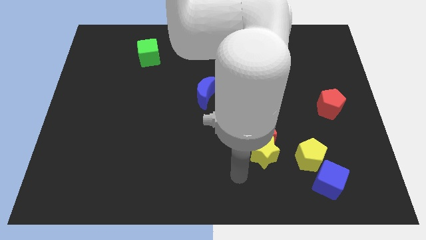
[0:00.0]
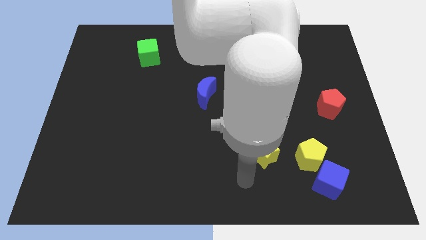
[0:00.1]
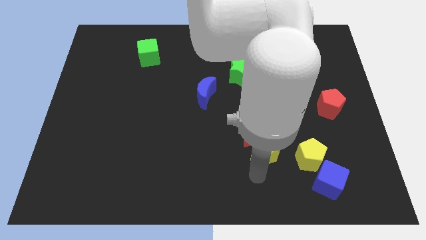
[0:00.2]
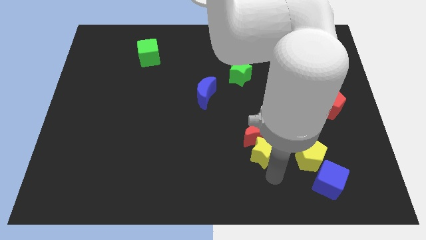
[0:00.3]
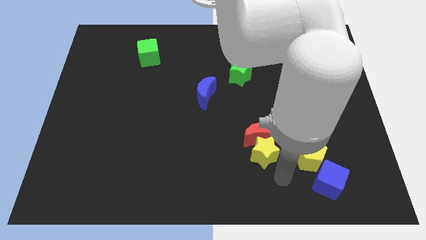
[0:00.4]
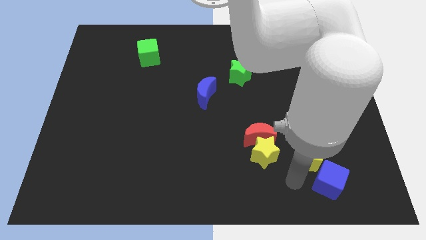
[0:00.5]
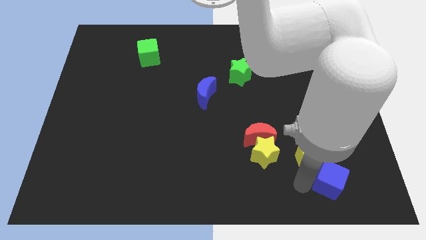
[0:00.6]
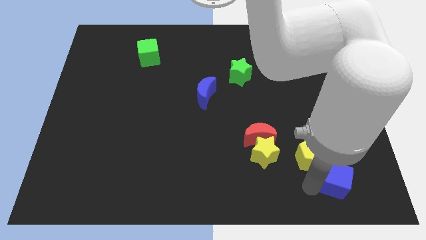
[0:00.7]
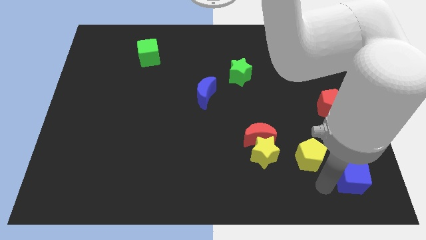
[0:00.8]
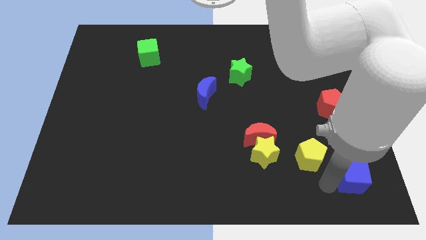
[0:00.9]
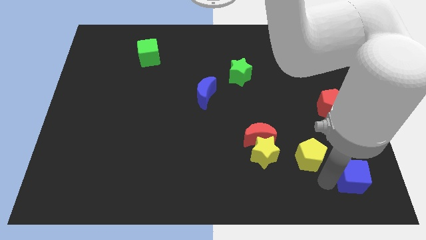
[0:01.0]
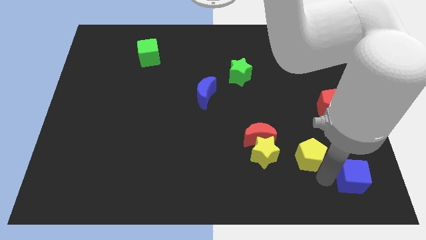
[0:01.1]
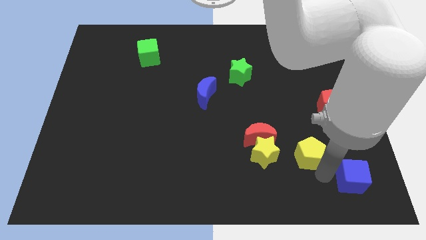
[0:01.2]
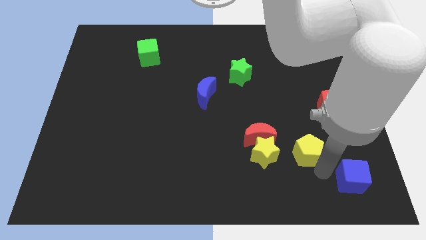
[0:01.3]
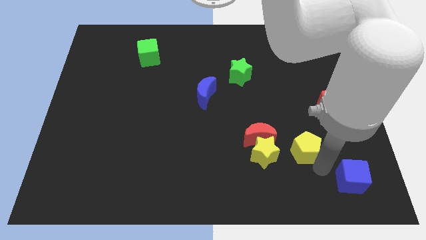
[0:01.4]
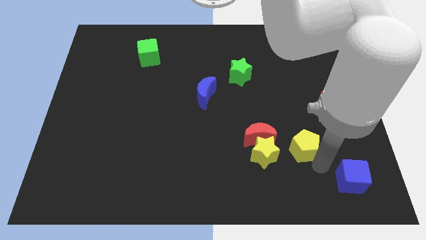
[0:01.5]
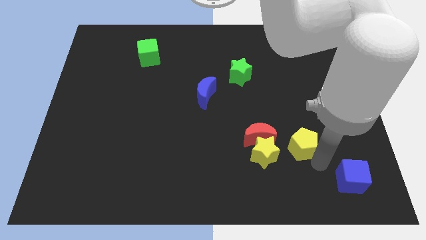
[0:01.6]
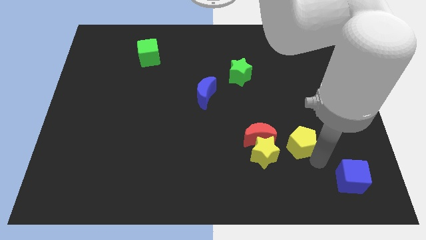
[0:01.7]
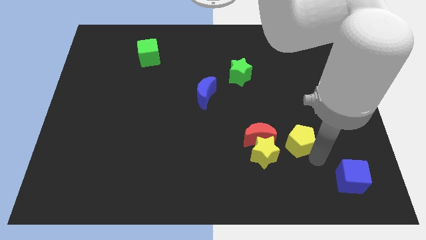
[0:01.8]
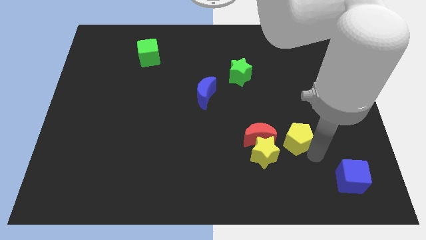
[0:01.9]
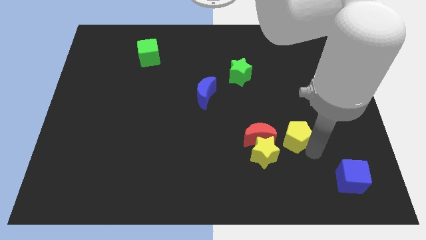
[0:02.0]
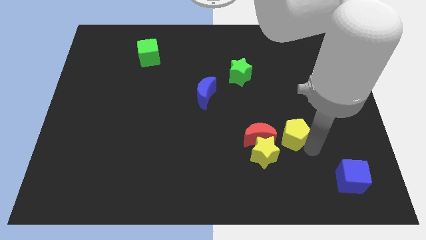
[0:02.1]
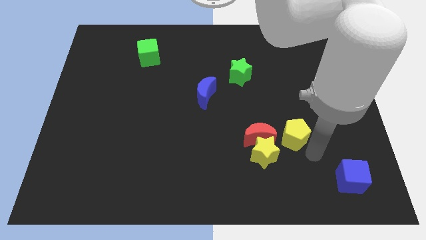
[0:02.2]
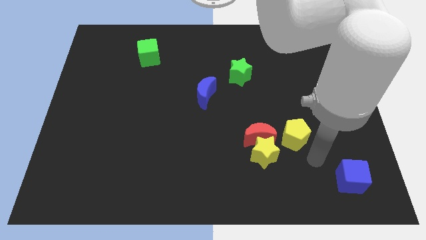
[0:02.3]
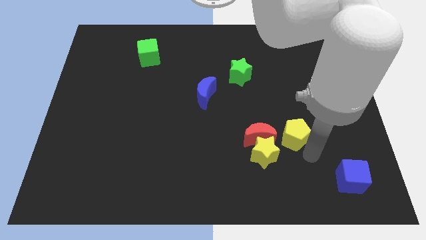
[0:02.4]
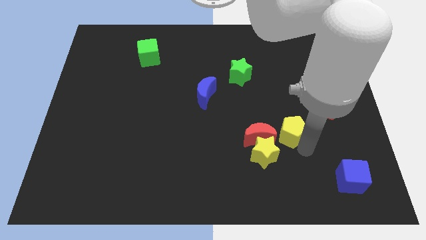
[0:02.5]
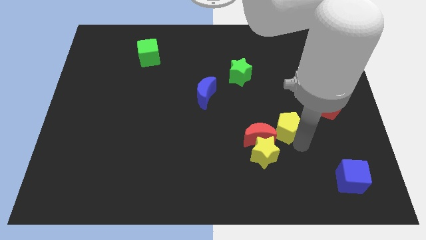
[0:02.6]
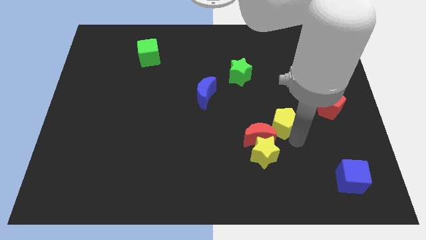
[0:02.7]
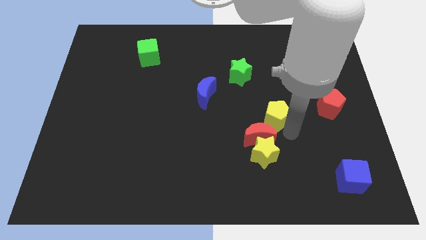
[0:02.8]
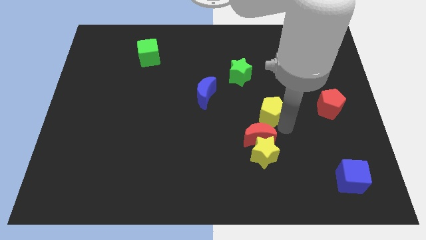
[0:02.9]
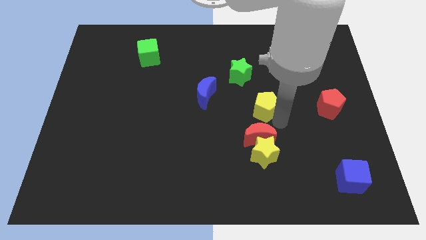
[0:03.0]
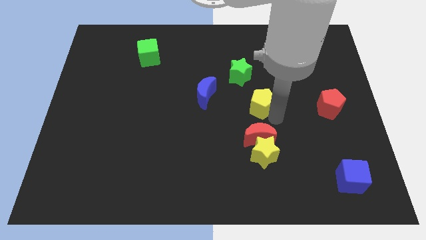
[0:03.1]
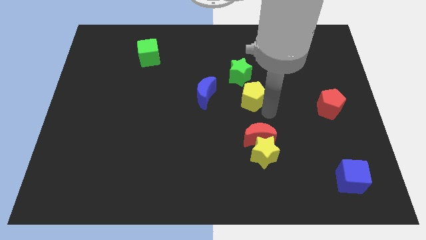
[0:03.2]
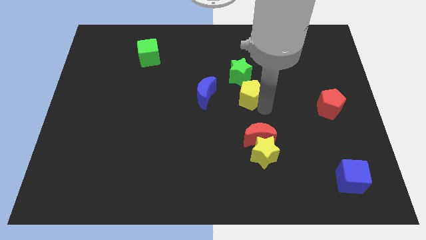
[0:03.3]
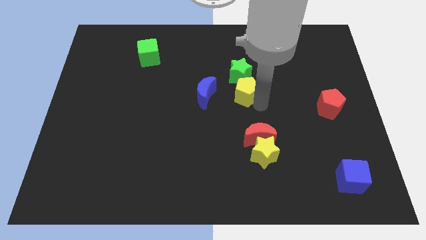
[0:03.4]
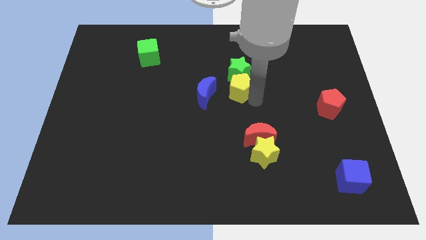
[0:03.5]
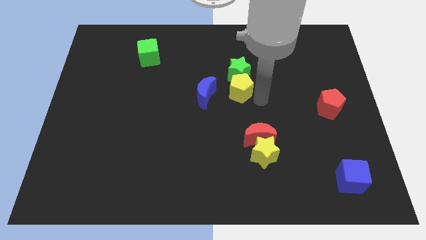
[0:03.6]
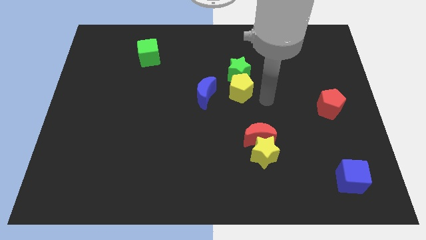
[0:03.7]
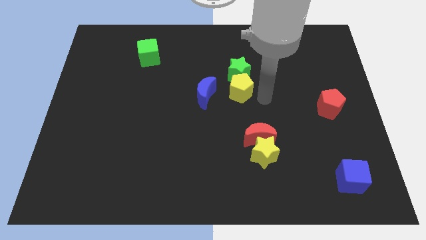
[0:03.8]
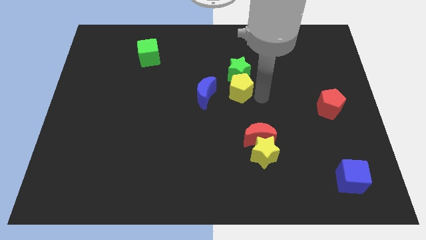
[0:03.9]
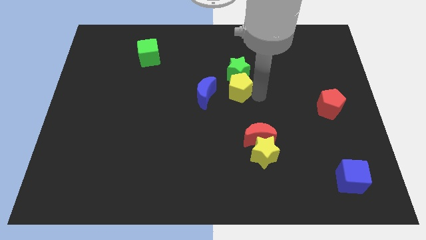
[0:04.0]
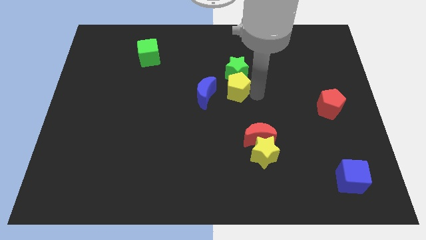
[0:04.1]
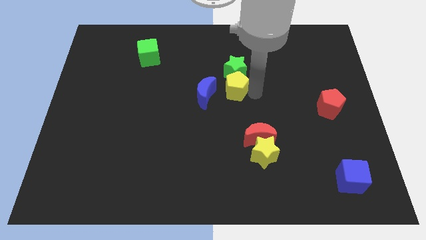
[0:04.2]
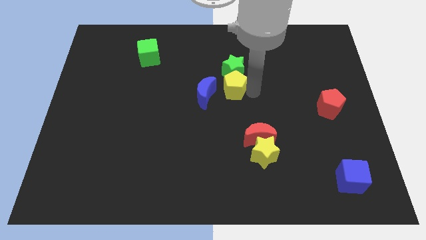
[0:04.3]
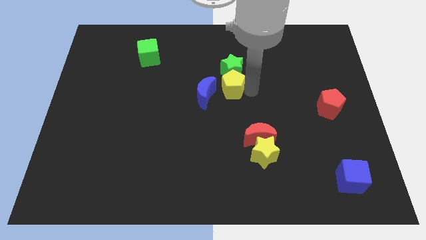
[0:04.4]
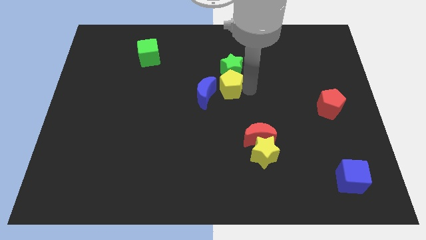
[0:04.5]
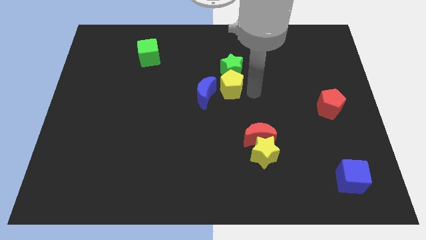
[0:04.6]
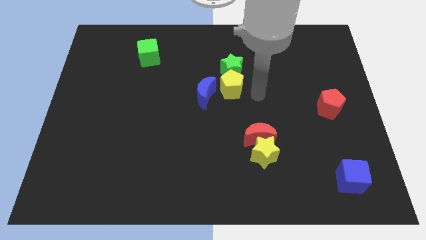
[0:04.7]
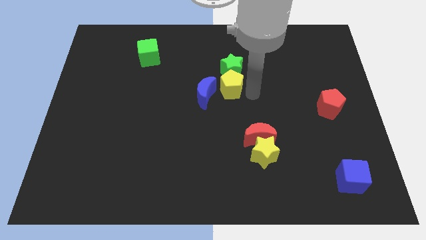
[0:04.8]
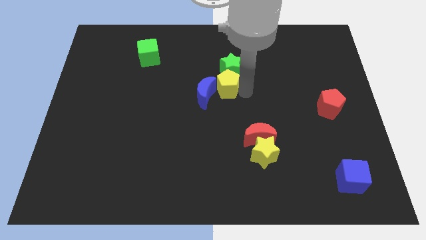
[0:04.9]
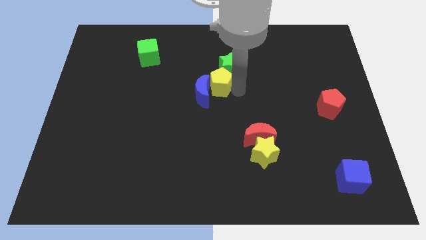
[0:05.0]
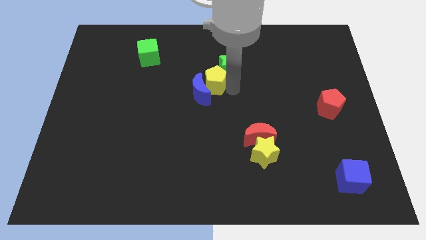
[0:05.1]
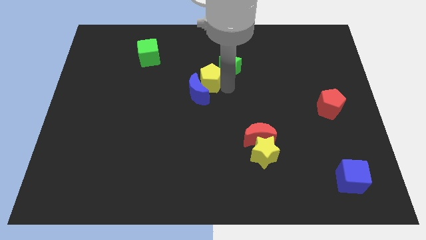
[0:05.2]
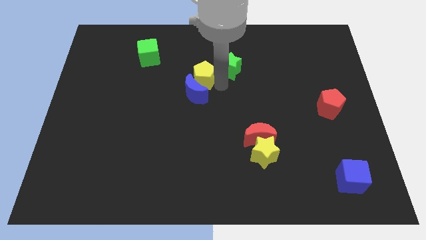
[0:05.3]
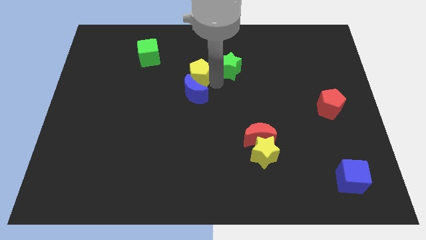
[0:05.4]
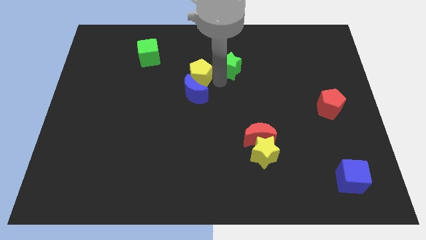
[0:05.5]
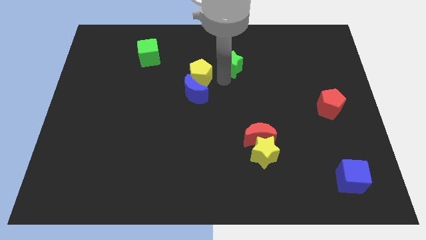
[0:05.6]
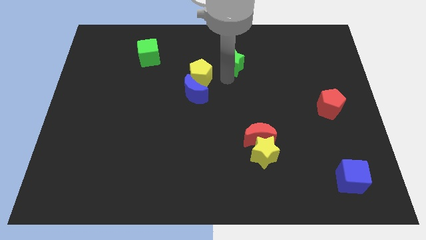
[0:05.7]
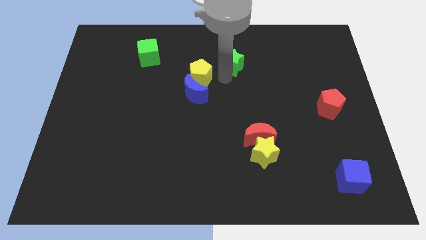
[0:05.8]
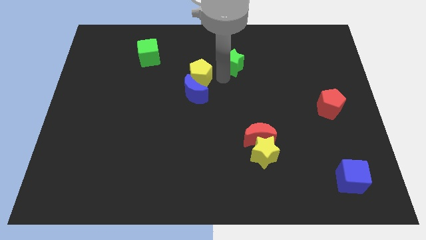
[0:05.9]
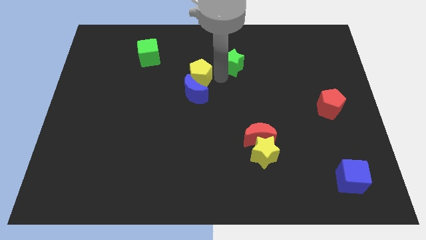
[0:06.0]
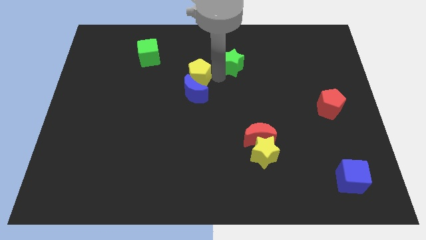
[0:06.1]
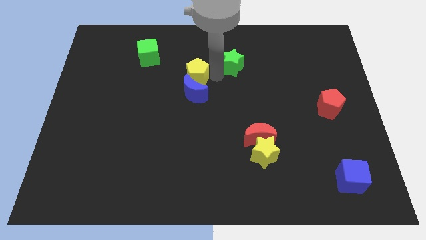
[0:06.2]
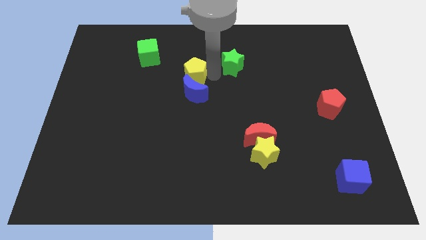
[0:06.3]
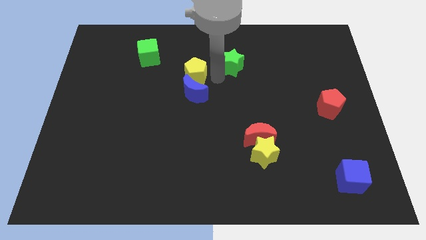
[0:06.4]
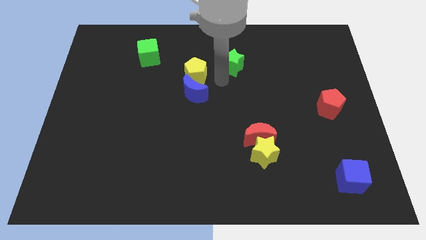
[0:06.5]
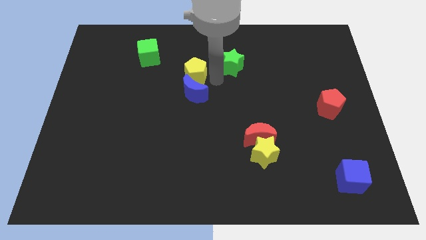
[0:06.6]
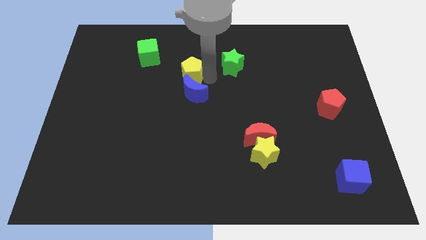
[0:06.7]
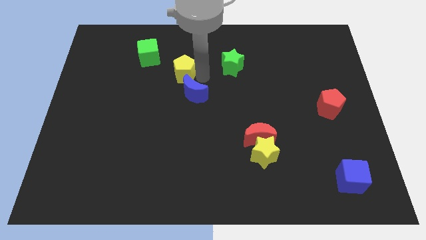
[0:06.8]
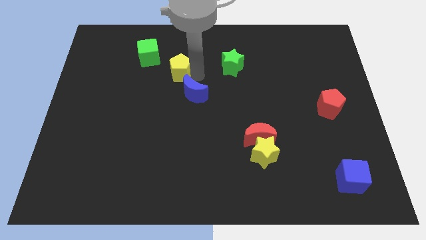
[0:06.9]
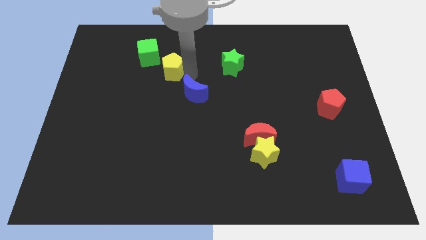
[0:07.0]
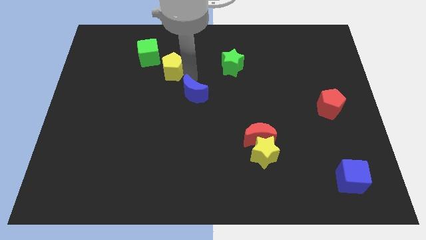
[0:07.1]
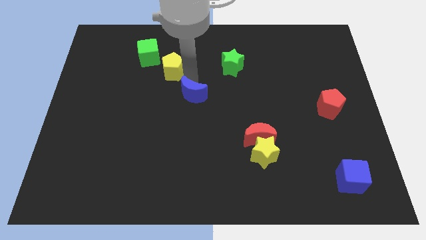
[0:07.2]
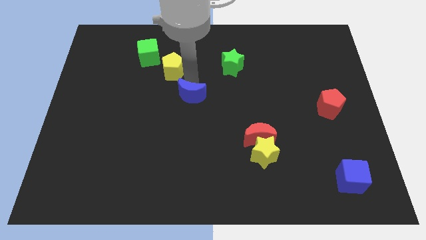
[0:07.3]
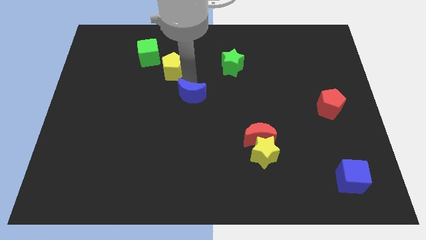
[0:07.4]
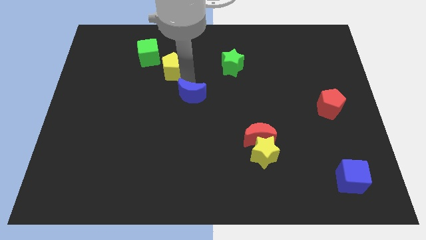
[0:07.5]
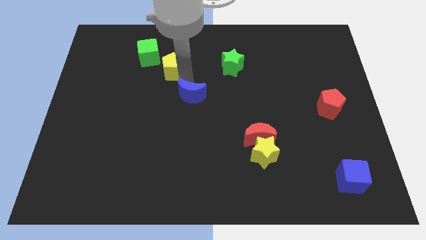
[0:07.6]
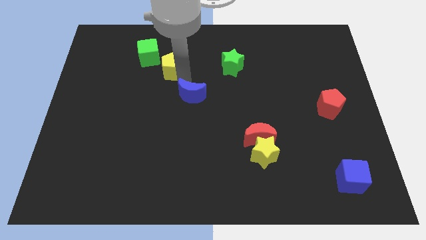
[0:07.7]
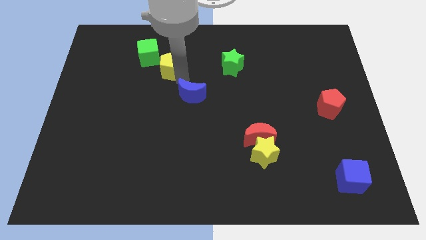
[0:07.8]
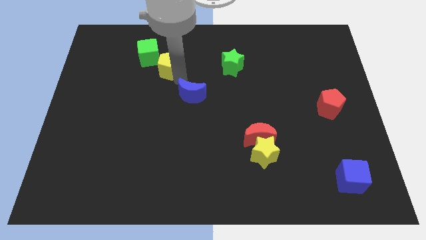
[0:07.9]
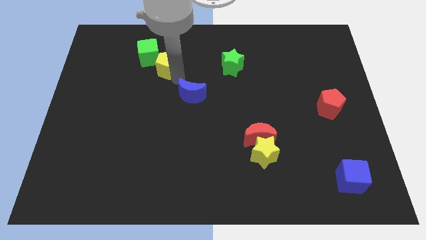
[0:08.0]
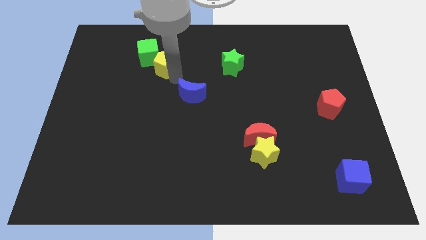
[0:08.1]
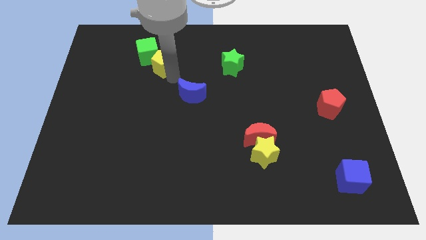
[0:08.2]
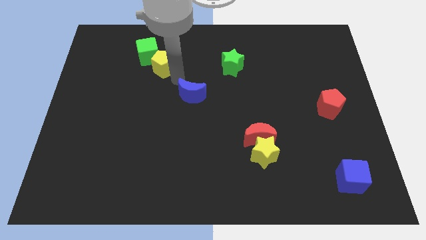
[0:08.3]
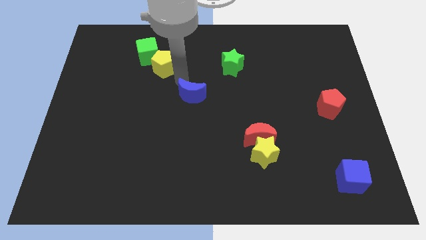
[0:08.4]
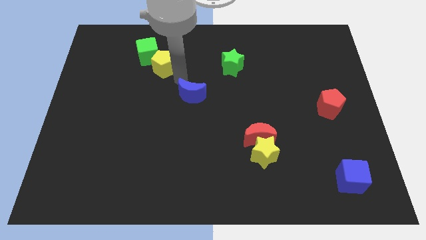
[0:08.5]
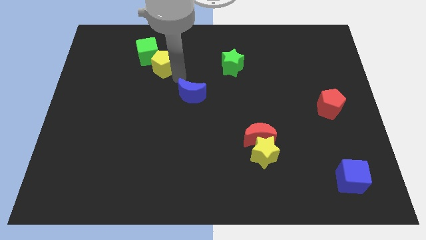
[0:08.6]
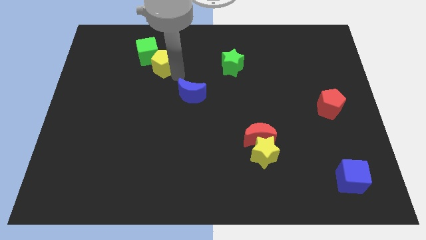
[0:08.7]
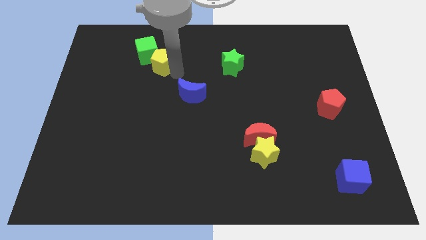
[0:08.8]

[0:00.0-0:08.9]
put the yellow pentagon towards the green cube
